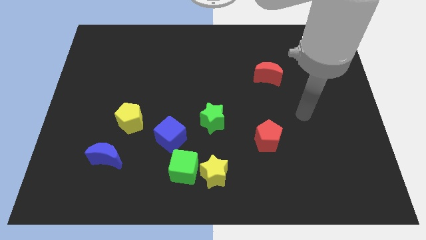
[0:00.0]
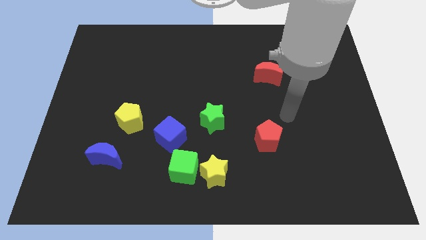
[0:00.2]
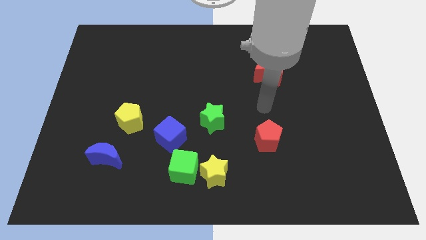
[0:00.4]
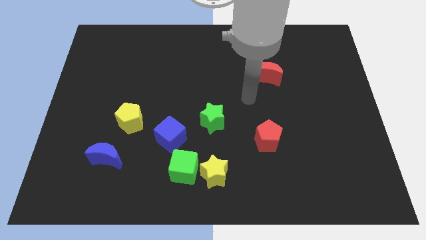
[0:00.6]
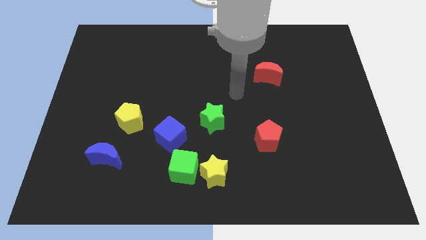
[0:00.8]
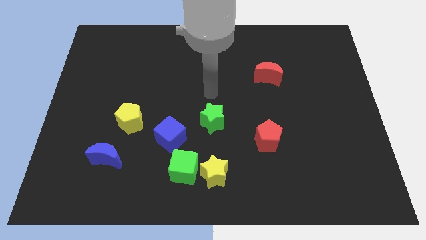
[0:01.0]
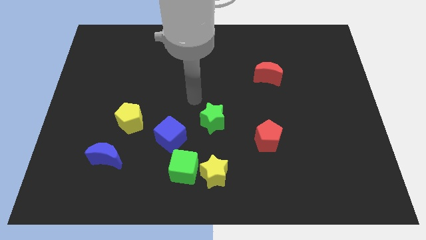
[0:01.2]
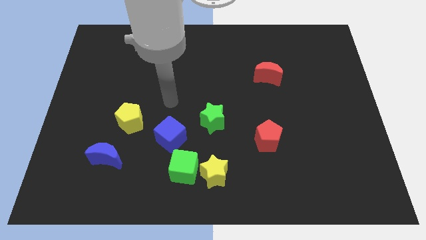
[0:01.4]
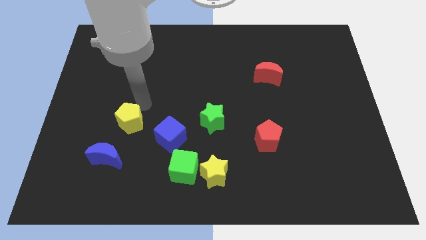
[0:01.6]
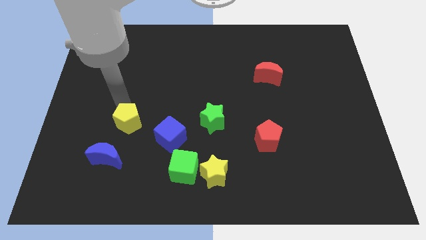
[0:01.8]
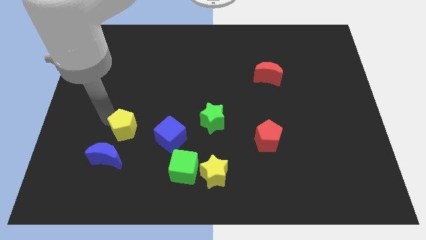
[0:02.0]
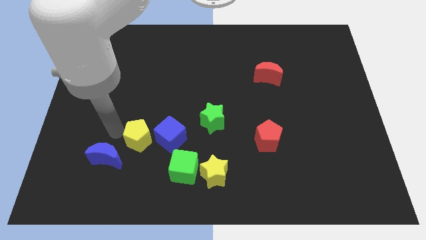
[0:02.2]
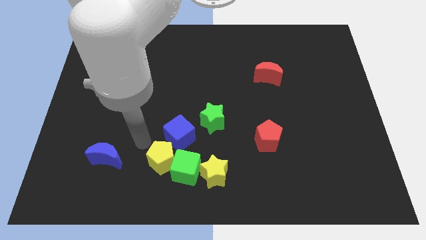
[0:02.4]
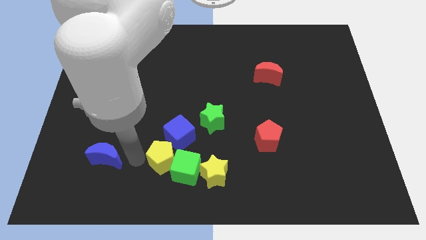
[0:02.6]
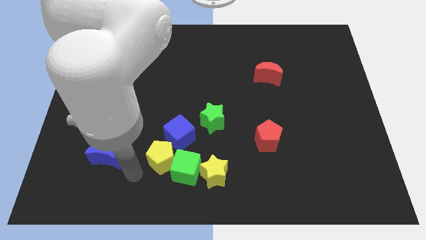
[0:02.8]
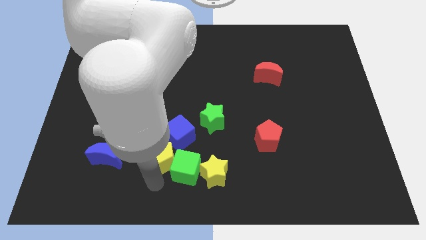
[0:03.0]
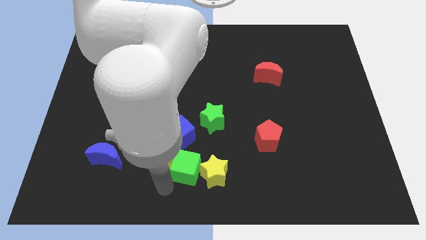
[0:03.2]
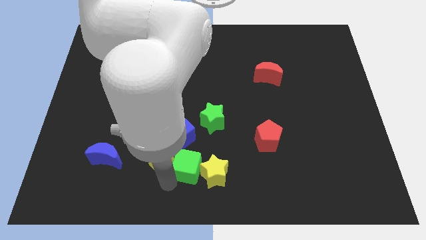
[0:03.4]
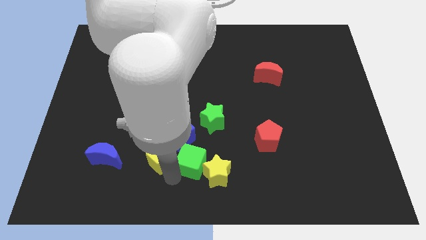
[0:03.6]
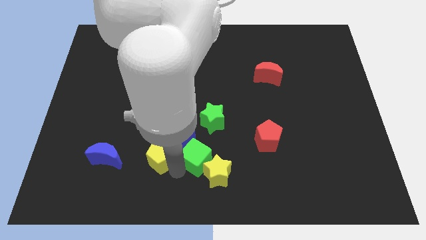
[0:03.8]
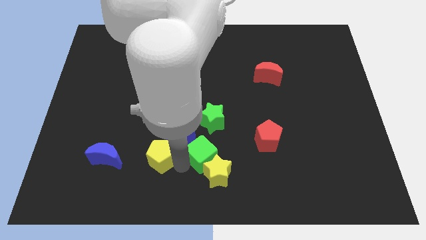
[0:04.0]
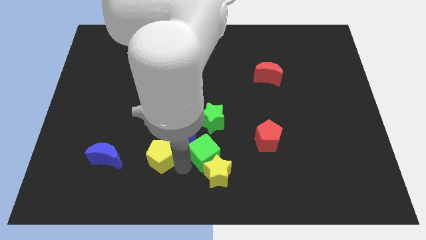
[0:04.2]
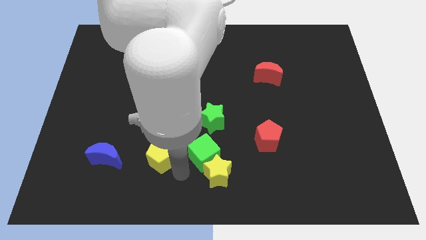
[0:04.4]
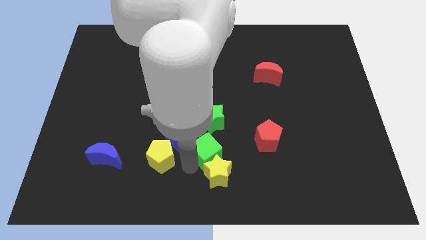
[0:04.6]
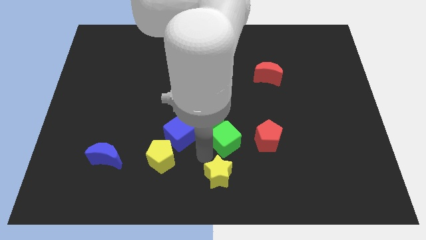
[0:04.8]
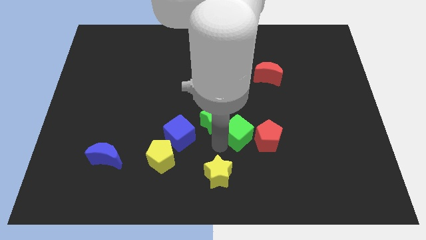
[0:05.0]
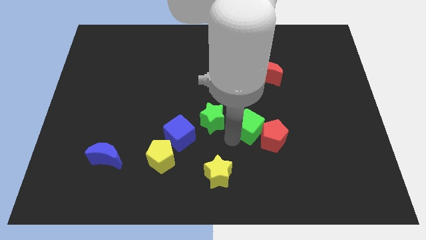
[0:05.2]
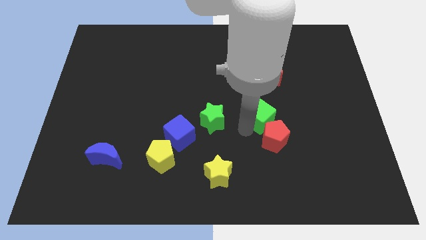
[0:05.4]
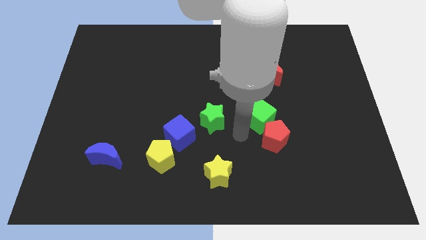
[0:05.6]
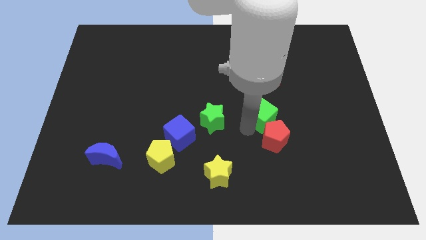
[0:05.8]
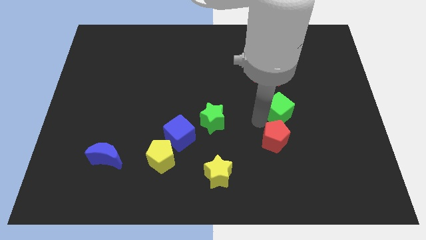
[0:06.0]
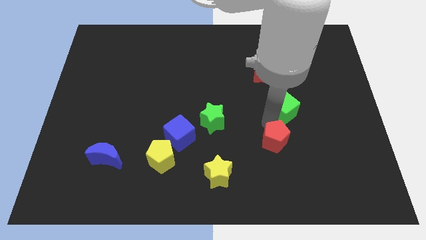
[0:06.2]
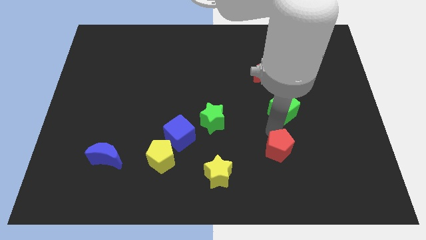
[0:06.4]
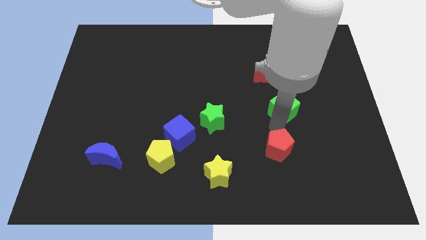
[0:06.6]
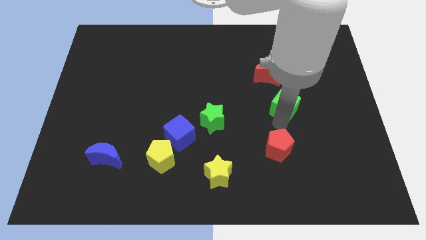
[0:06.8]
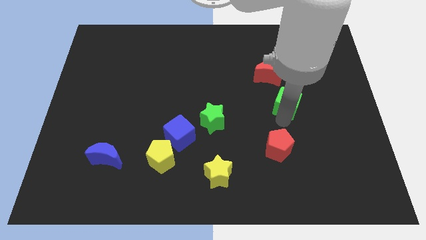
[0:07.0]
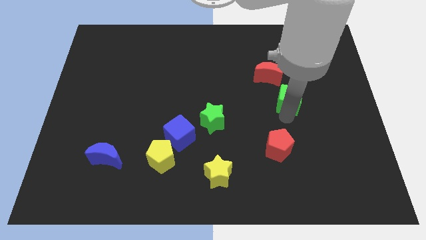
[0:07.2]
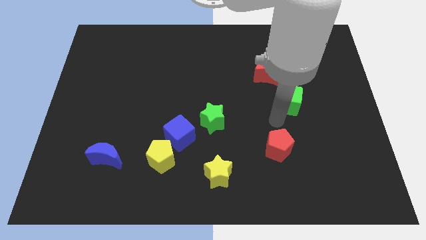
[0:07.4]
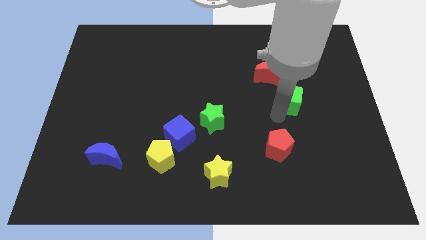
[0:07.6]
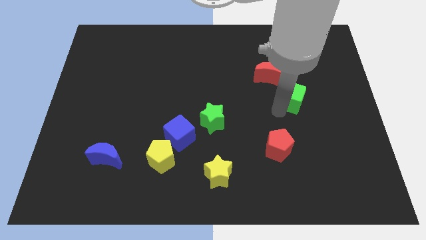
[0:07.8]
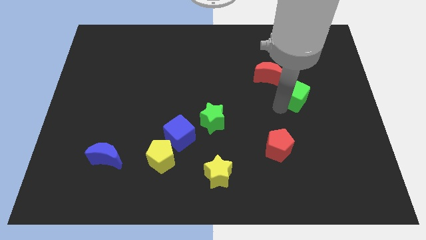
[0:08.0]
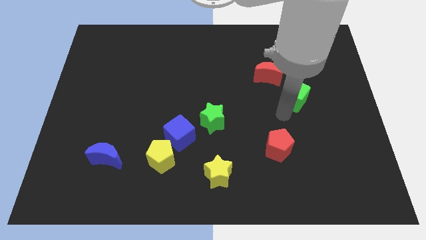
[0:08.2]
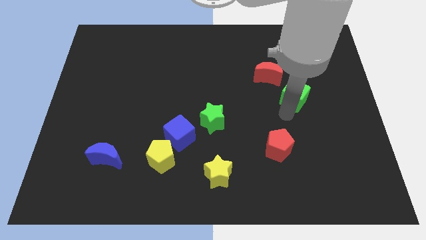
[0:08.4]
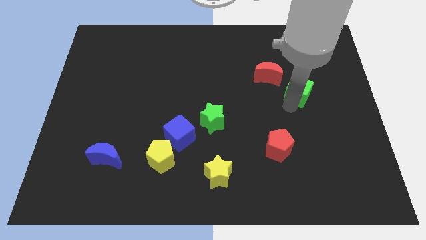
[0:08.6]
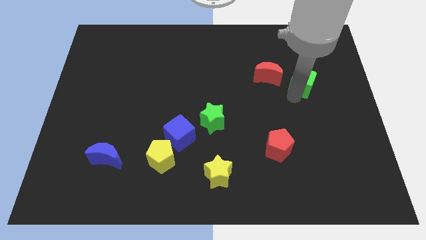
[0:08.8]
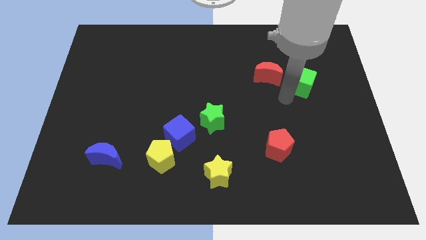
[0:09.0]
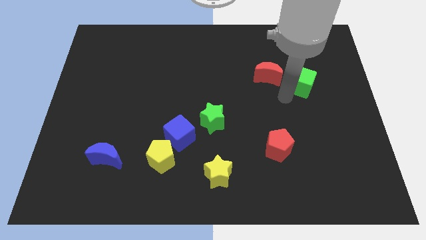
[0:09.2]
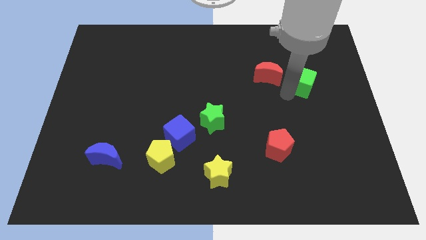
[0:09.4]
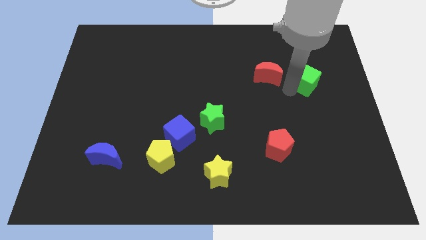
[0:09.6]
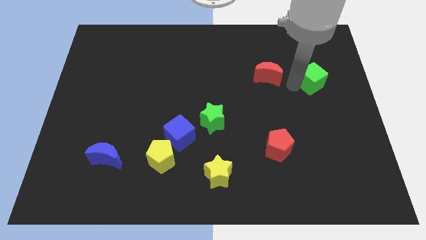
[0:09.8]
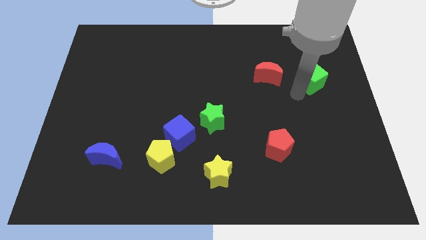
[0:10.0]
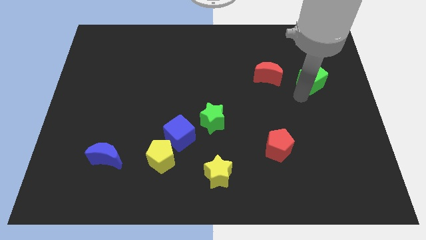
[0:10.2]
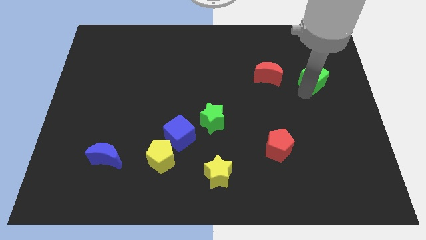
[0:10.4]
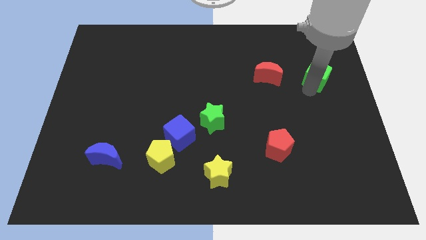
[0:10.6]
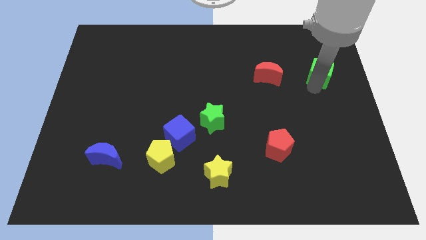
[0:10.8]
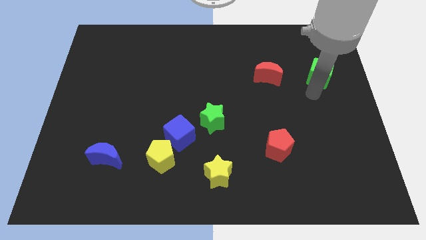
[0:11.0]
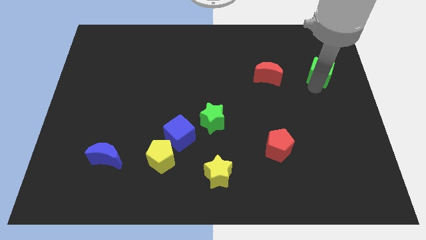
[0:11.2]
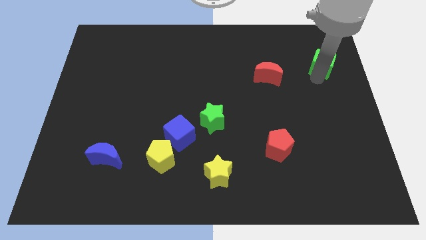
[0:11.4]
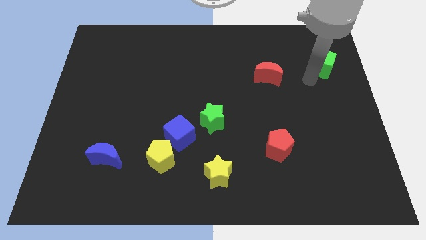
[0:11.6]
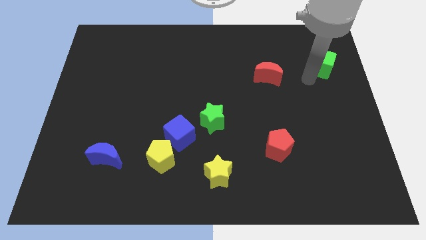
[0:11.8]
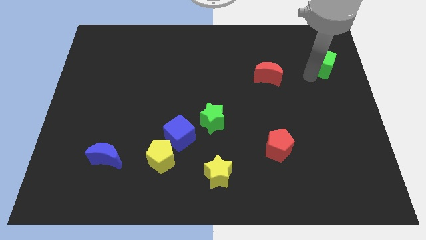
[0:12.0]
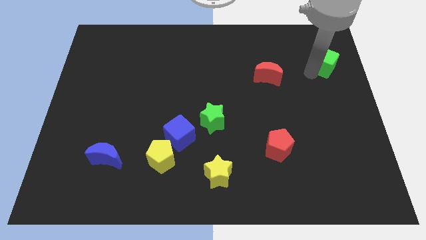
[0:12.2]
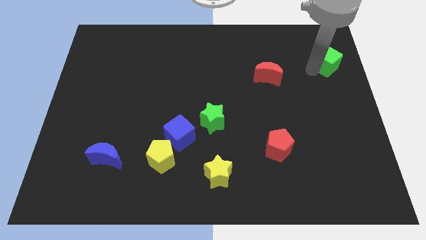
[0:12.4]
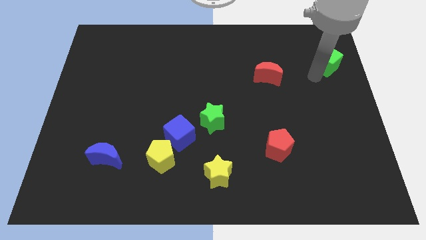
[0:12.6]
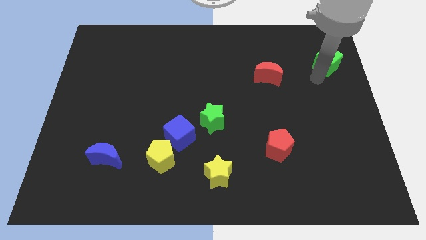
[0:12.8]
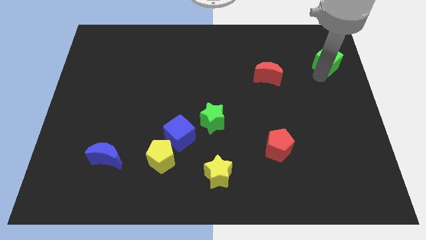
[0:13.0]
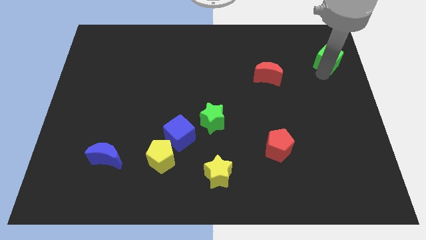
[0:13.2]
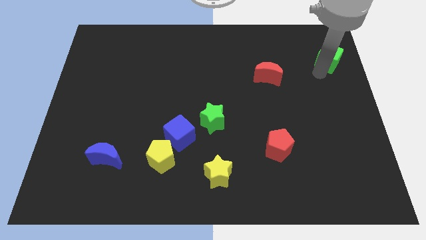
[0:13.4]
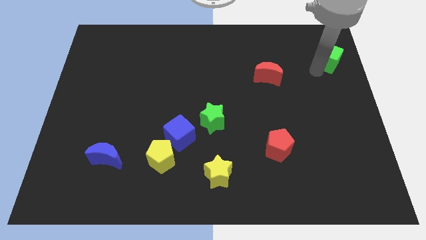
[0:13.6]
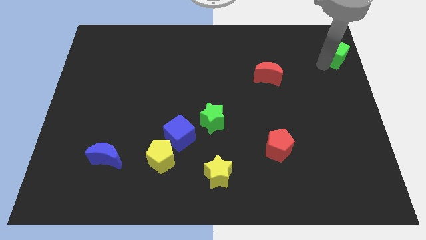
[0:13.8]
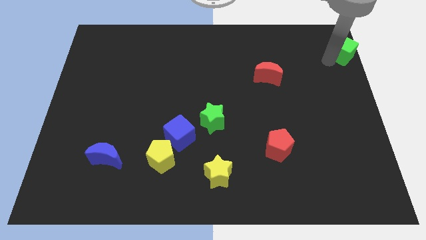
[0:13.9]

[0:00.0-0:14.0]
slide the green cube to the top right corner

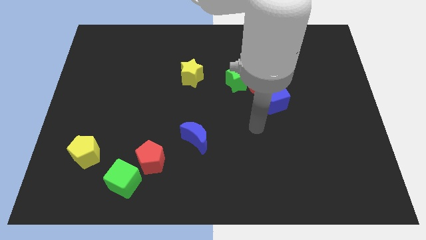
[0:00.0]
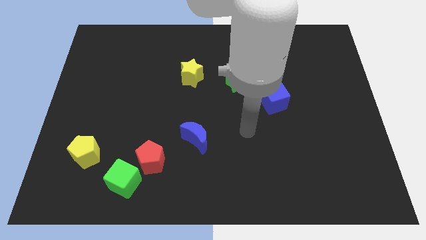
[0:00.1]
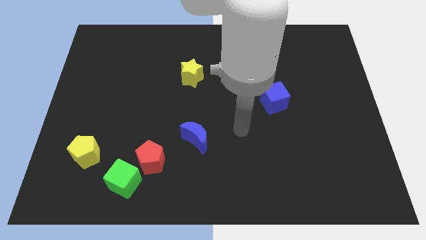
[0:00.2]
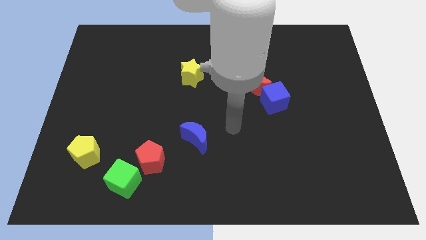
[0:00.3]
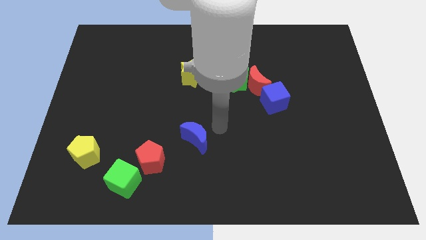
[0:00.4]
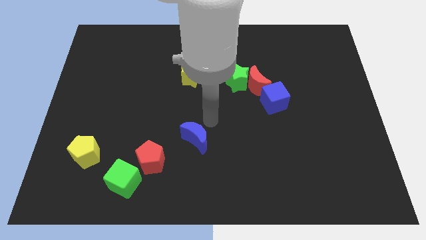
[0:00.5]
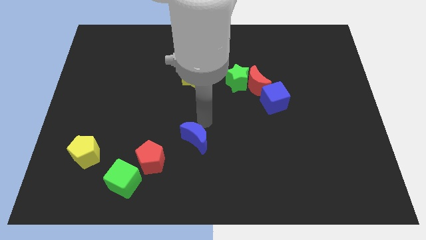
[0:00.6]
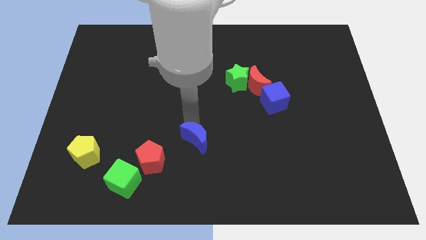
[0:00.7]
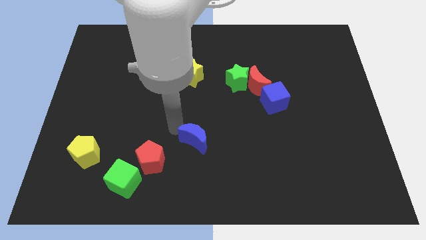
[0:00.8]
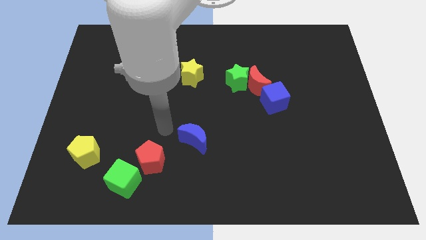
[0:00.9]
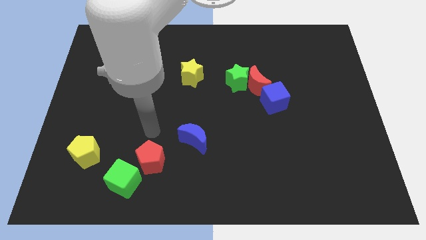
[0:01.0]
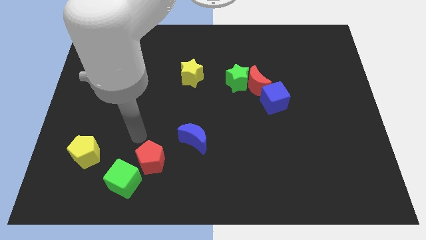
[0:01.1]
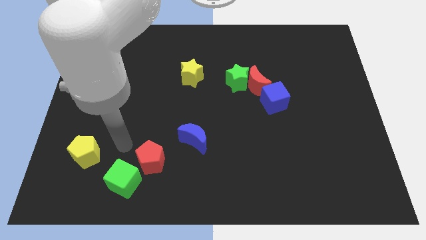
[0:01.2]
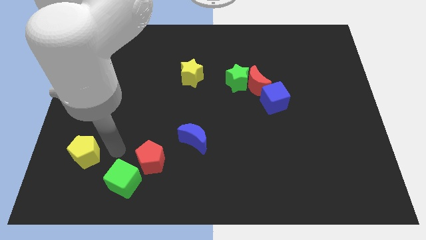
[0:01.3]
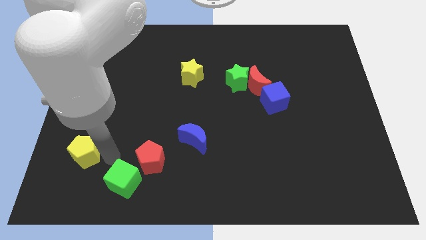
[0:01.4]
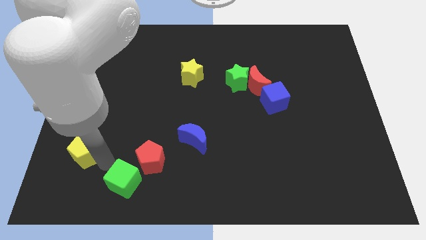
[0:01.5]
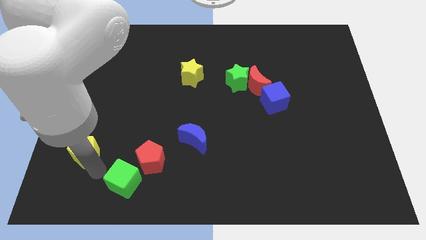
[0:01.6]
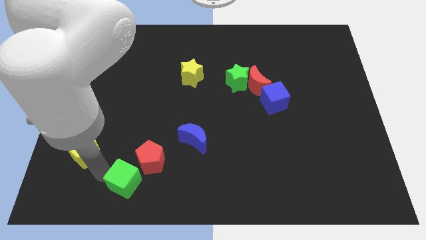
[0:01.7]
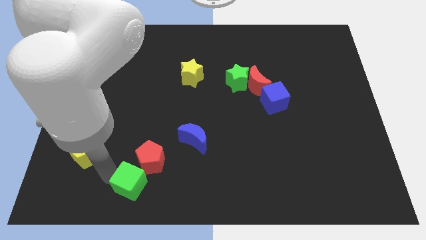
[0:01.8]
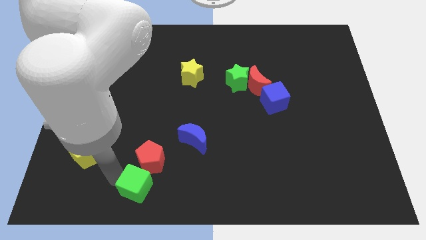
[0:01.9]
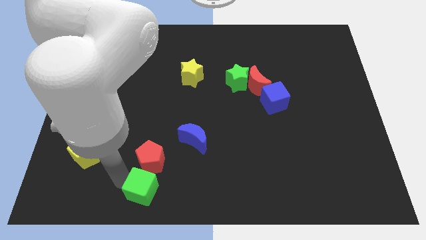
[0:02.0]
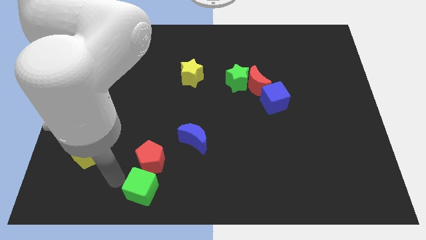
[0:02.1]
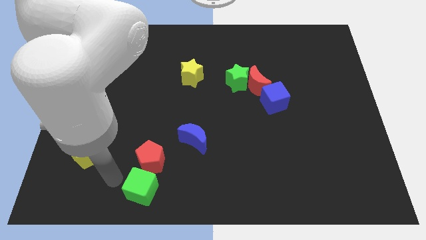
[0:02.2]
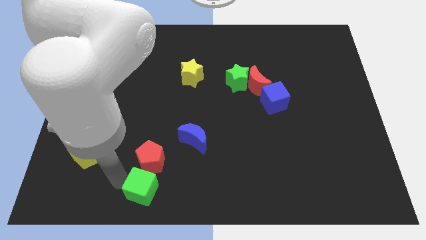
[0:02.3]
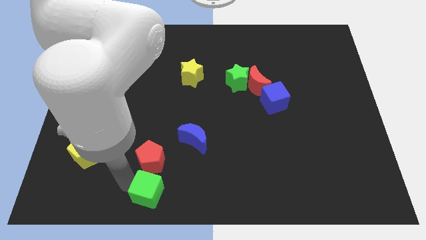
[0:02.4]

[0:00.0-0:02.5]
move the green cube to the bottom
